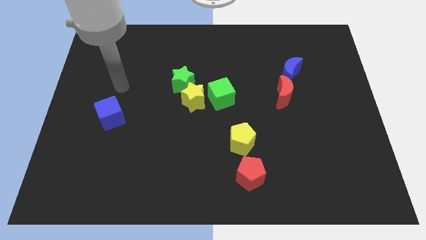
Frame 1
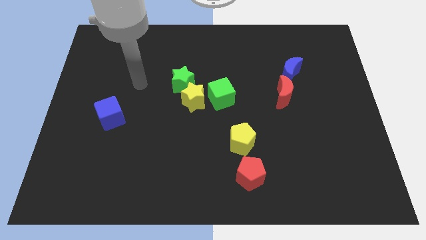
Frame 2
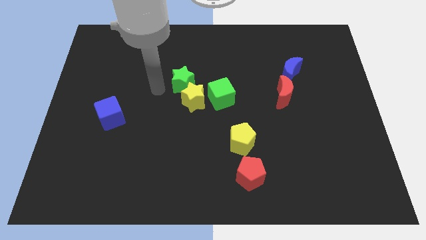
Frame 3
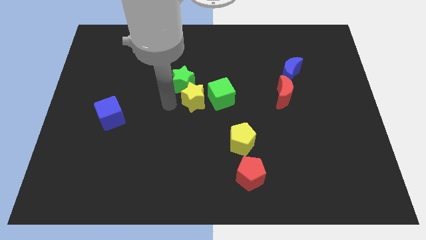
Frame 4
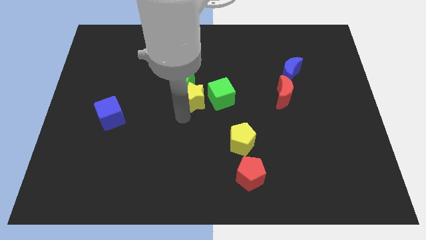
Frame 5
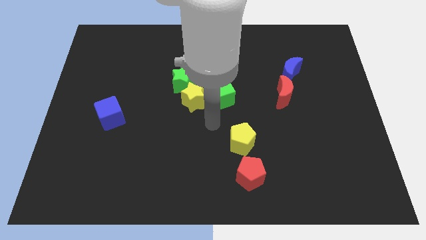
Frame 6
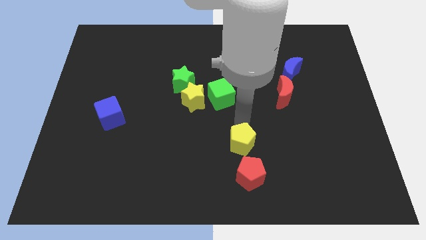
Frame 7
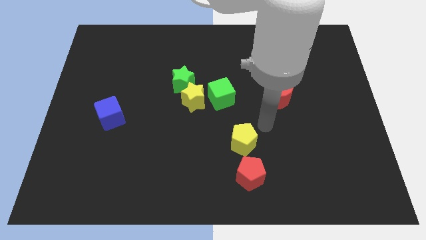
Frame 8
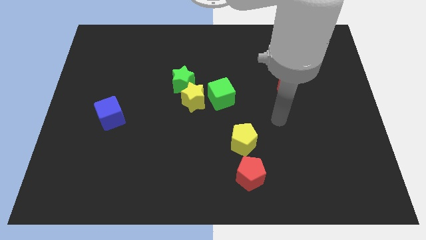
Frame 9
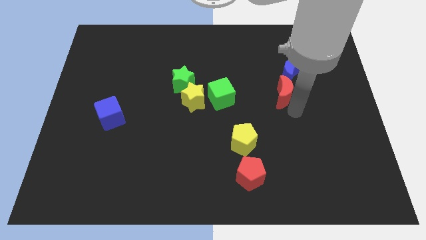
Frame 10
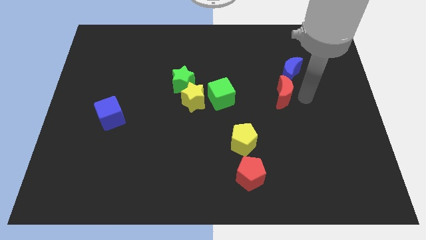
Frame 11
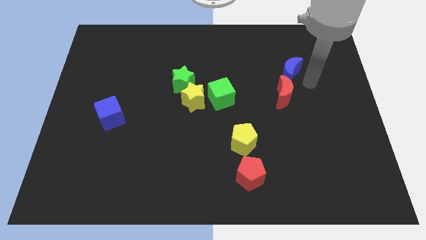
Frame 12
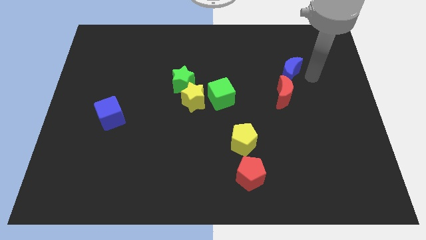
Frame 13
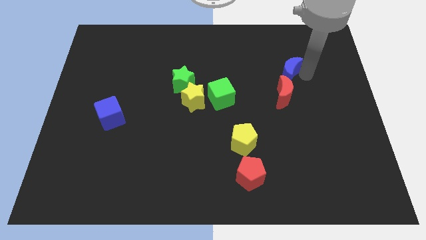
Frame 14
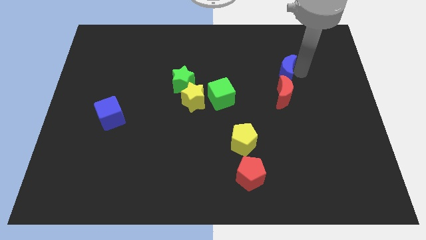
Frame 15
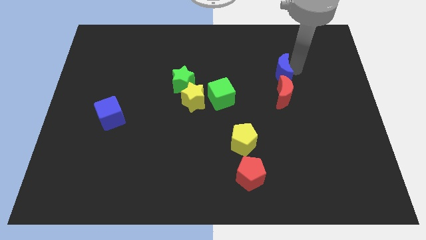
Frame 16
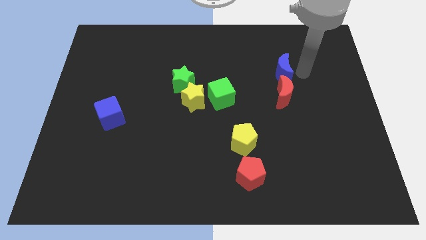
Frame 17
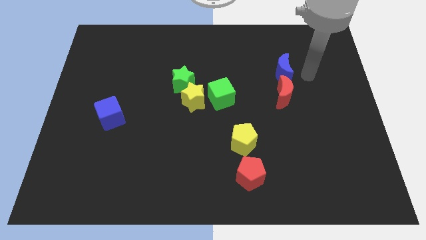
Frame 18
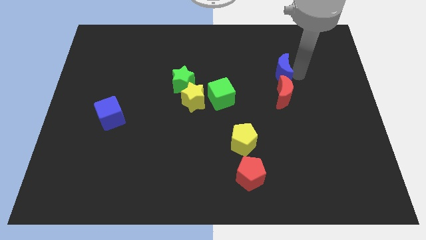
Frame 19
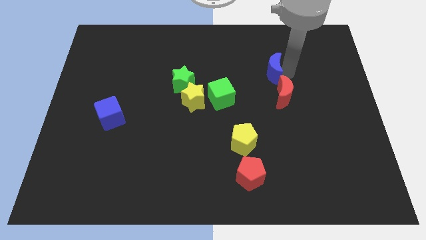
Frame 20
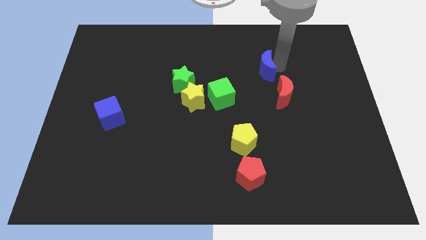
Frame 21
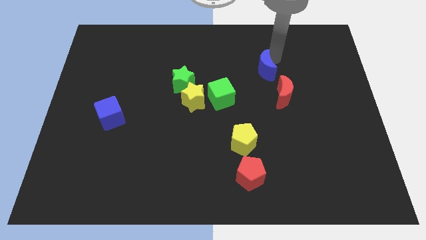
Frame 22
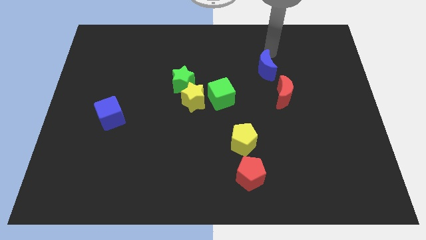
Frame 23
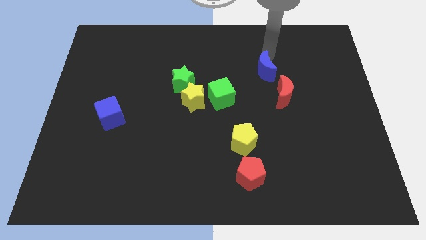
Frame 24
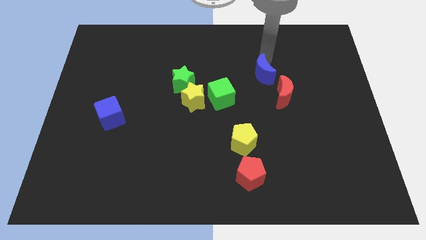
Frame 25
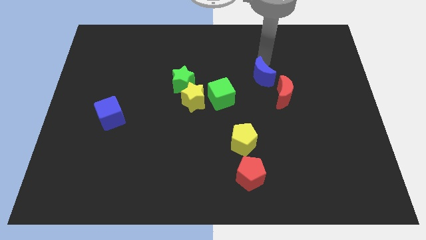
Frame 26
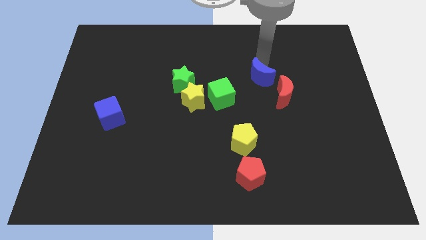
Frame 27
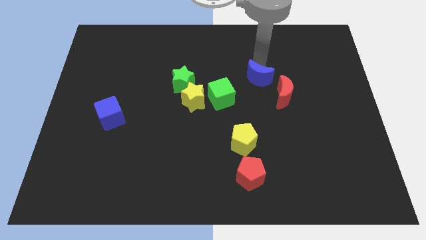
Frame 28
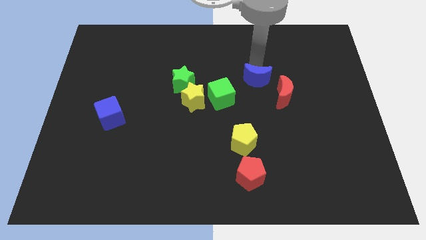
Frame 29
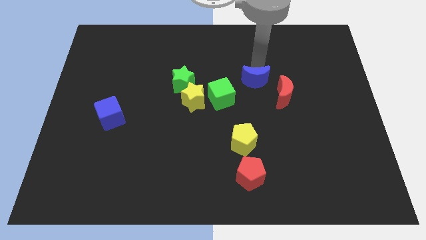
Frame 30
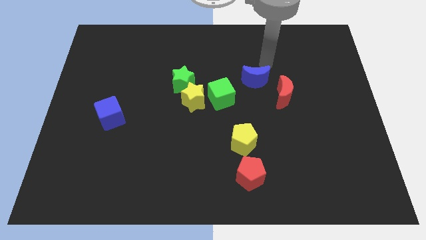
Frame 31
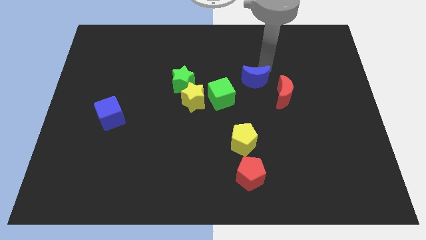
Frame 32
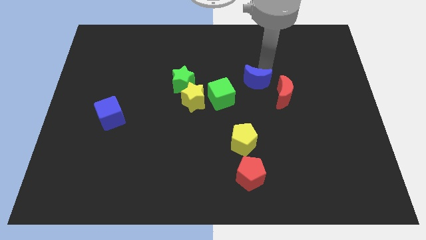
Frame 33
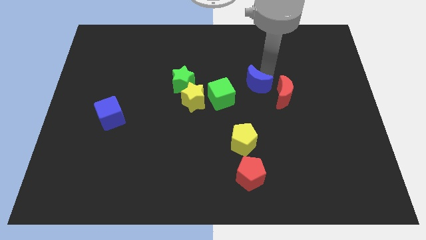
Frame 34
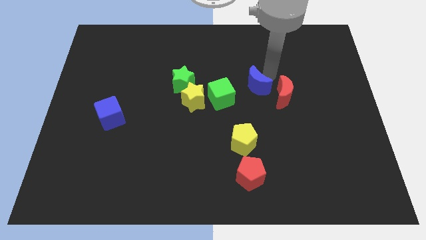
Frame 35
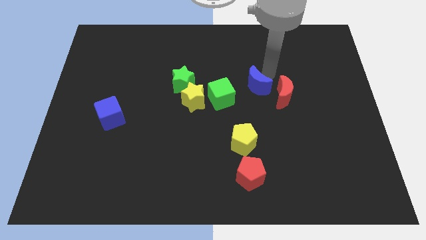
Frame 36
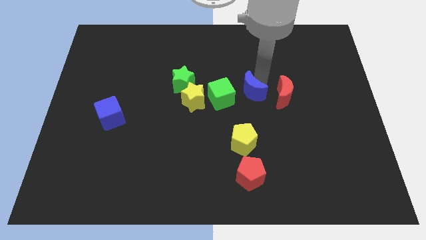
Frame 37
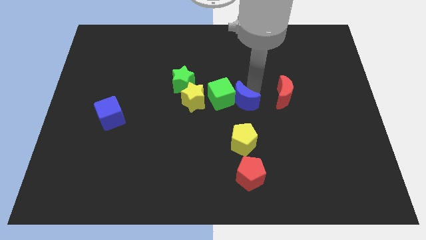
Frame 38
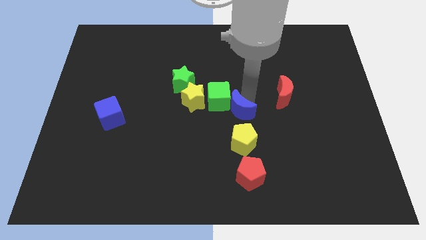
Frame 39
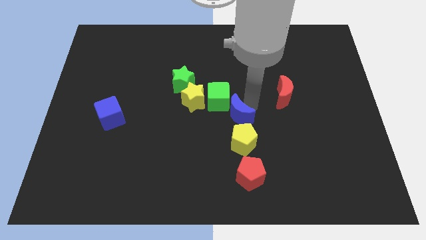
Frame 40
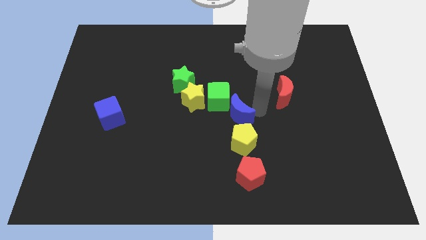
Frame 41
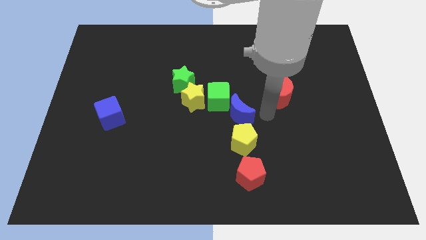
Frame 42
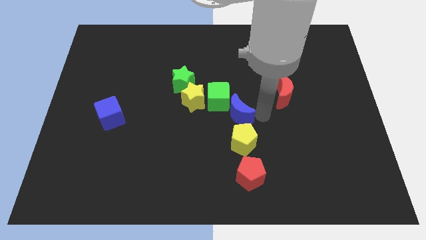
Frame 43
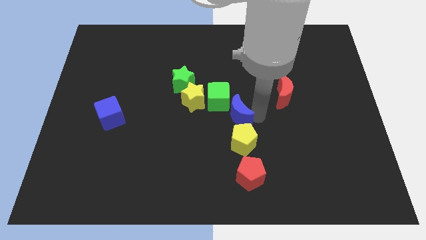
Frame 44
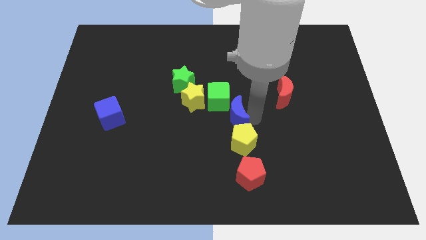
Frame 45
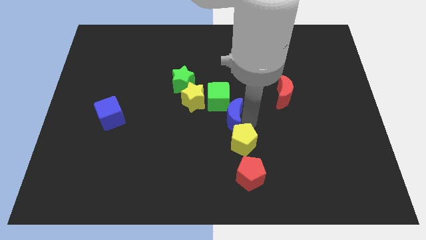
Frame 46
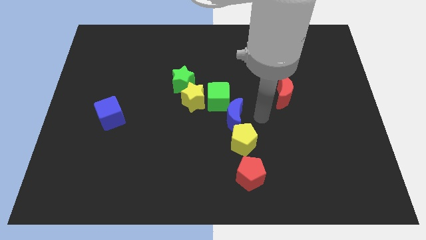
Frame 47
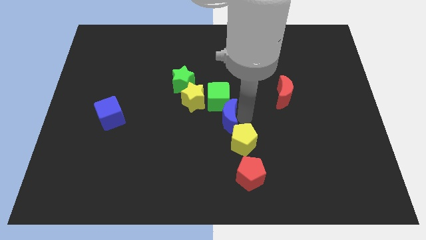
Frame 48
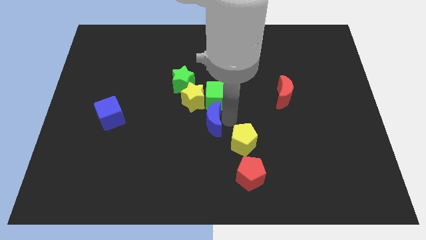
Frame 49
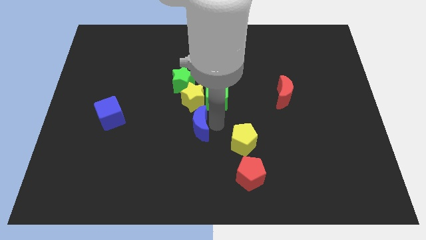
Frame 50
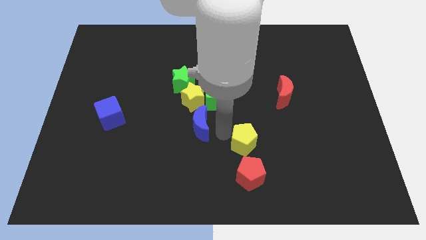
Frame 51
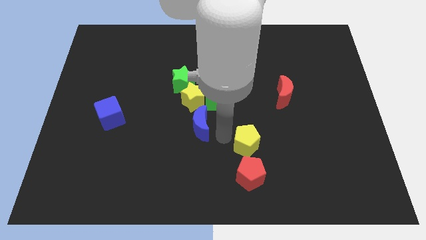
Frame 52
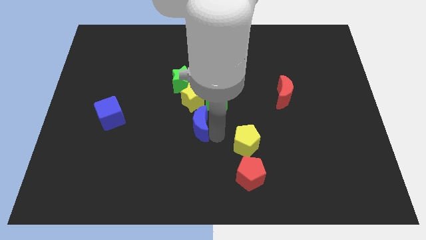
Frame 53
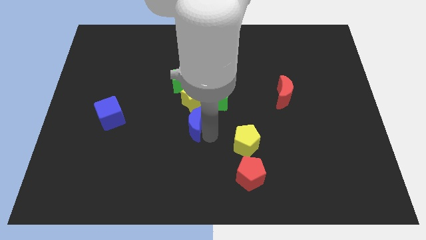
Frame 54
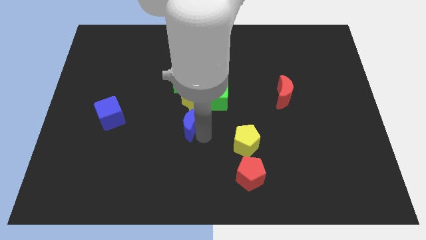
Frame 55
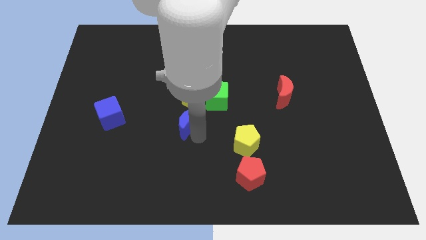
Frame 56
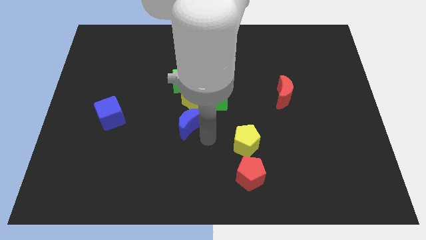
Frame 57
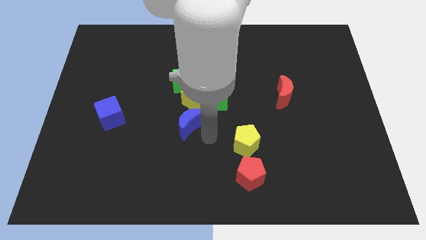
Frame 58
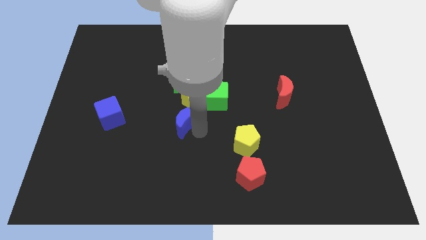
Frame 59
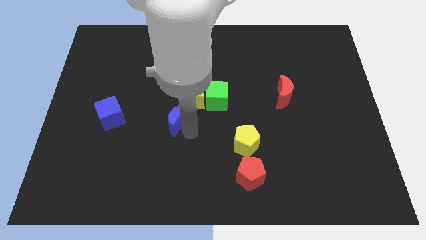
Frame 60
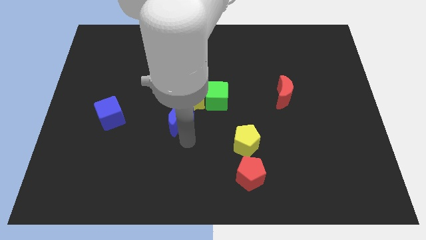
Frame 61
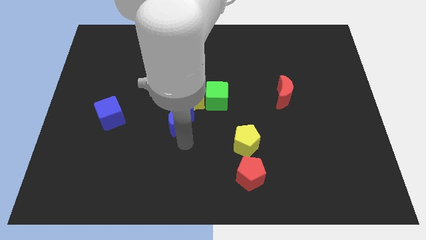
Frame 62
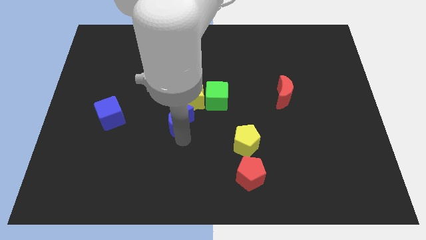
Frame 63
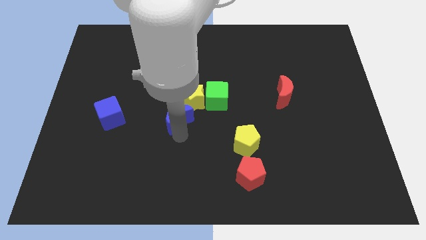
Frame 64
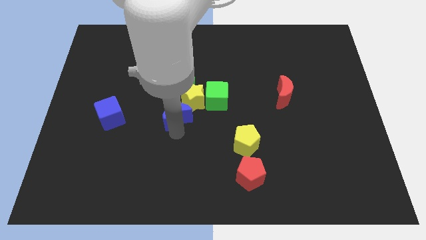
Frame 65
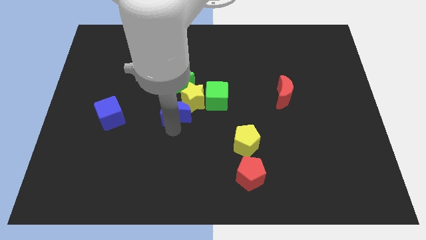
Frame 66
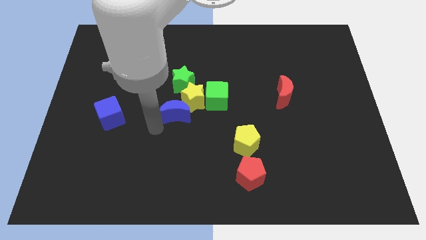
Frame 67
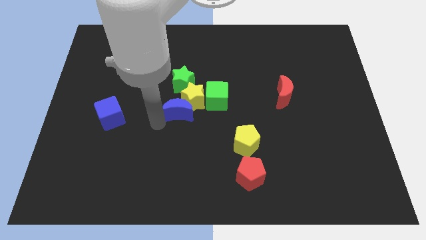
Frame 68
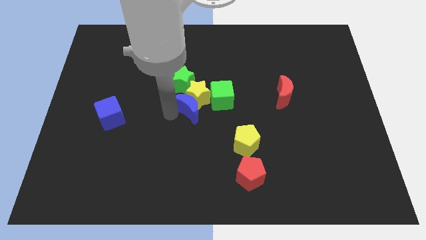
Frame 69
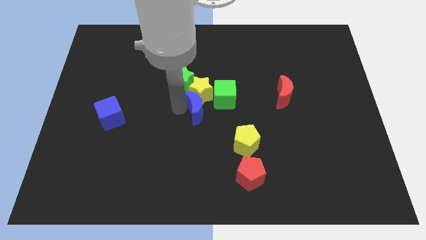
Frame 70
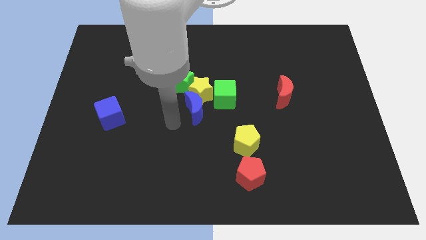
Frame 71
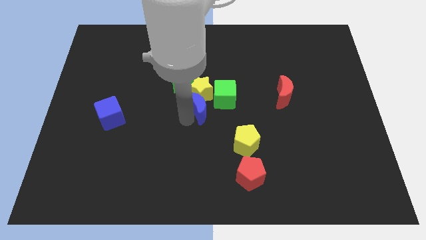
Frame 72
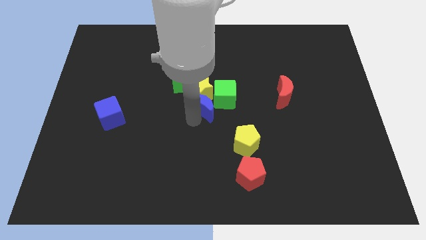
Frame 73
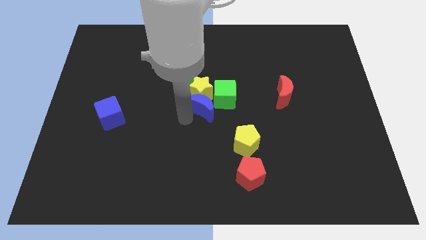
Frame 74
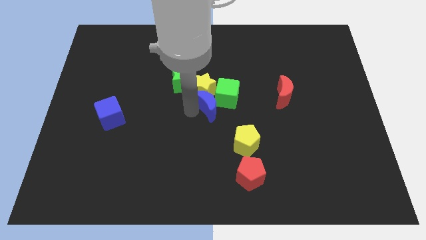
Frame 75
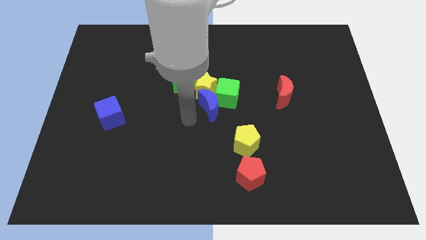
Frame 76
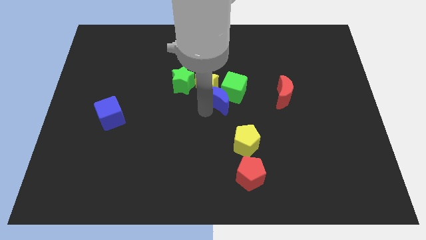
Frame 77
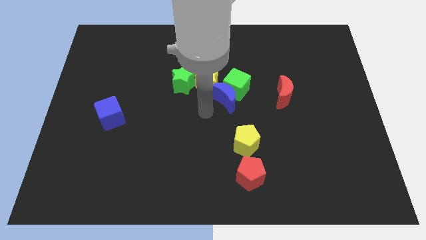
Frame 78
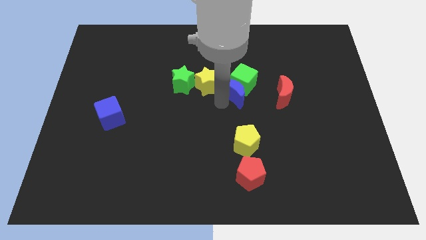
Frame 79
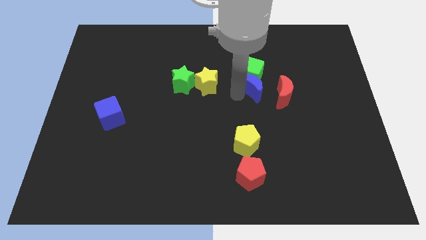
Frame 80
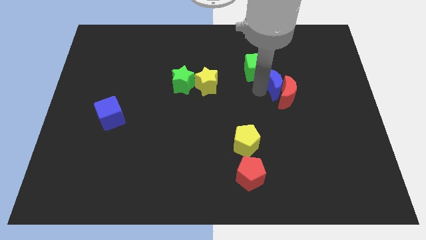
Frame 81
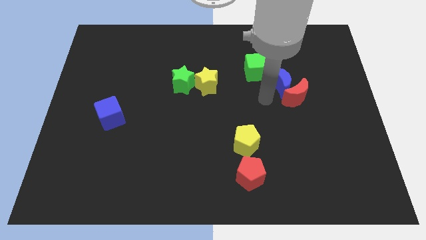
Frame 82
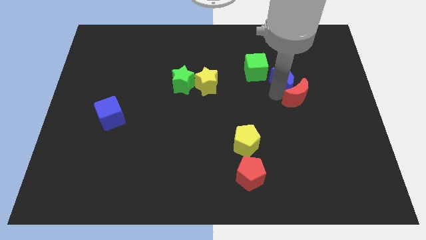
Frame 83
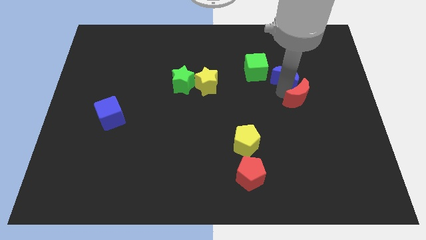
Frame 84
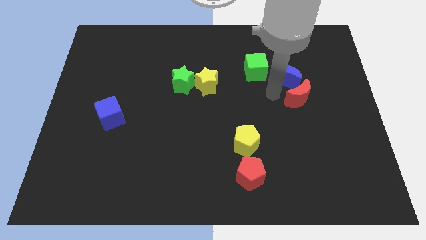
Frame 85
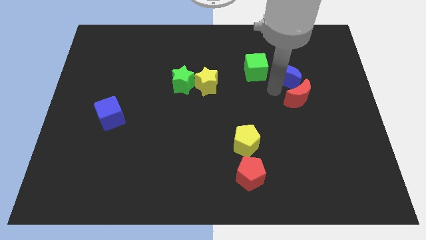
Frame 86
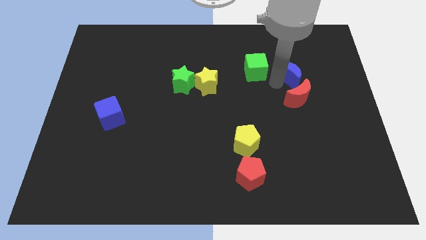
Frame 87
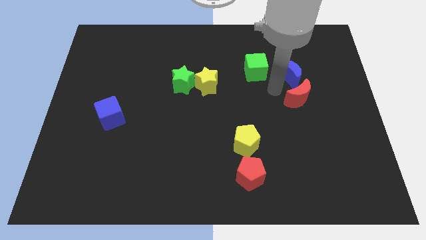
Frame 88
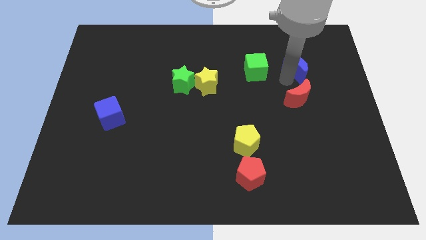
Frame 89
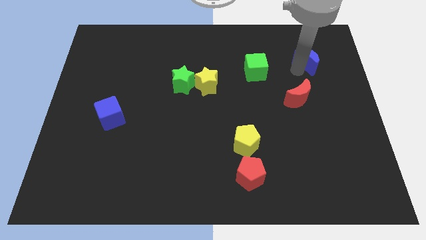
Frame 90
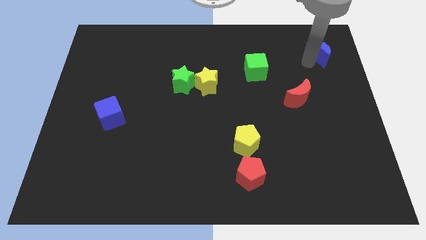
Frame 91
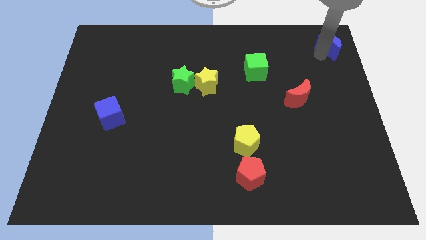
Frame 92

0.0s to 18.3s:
slide the blue moon to the upper right corner
